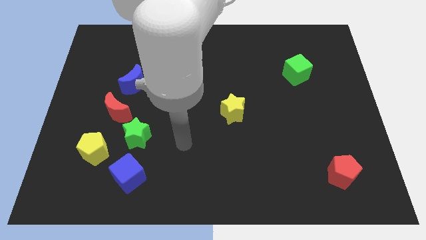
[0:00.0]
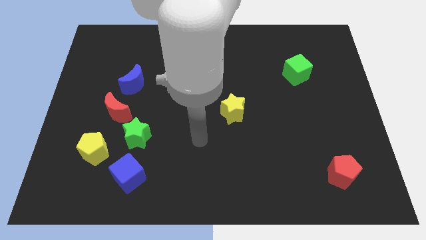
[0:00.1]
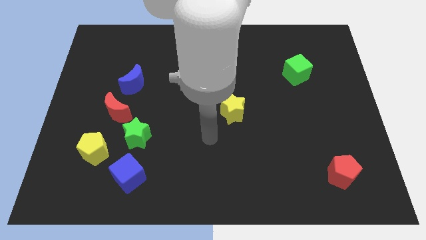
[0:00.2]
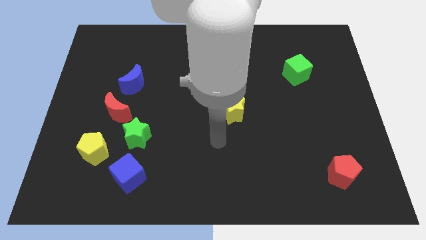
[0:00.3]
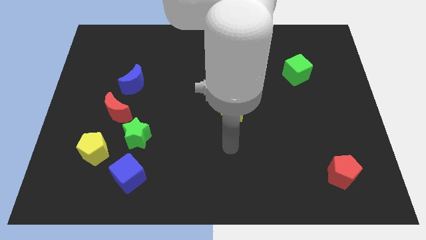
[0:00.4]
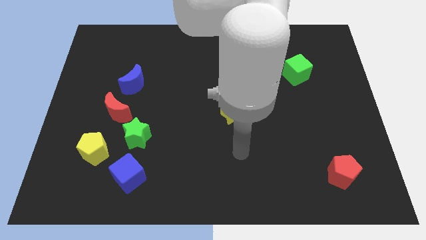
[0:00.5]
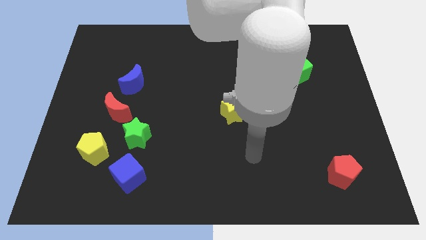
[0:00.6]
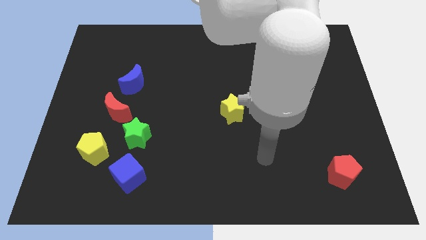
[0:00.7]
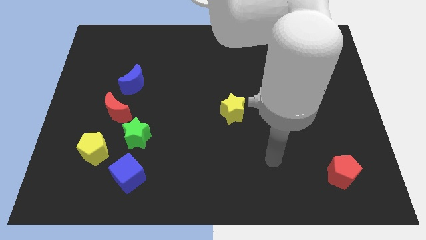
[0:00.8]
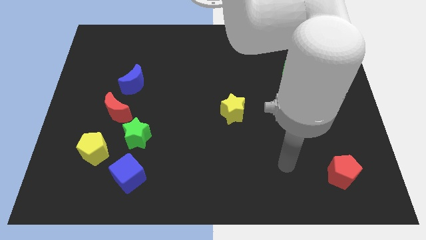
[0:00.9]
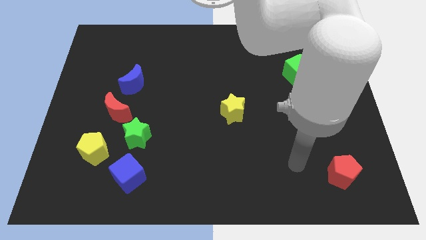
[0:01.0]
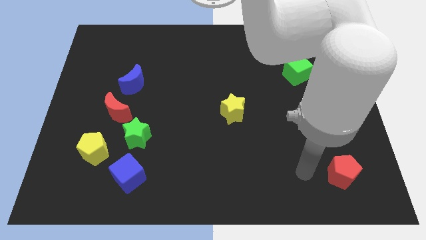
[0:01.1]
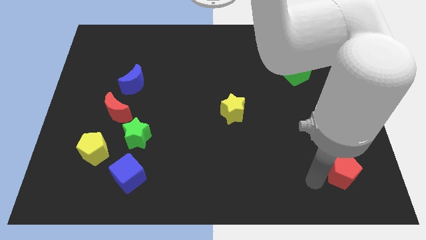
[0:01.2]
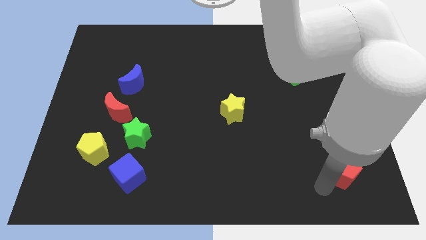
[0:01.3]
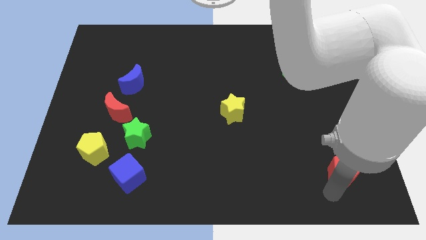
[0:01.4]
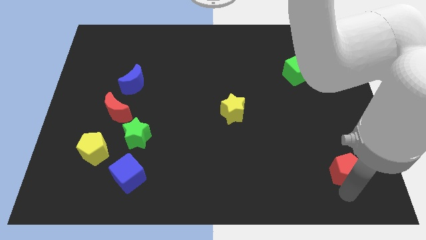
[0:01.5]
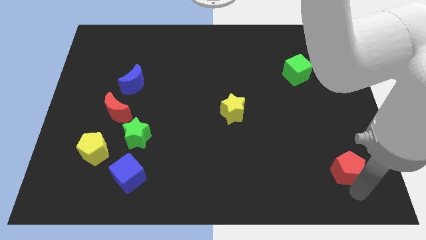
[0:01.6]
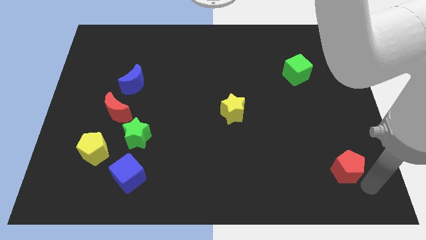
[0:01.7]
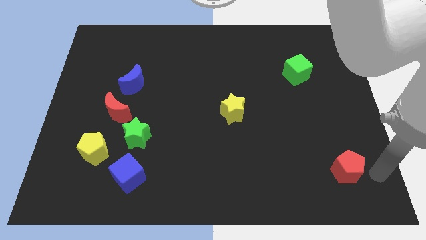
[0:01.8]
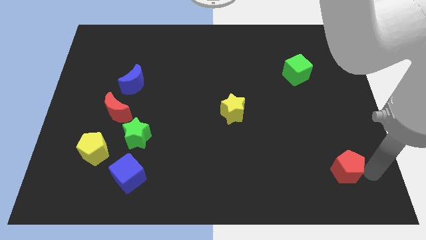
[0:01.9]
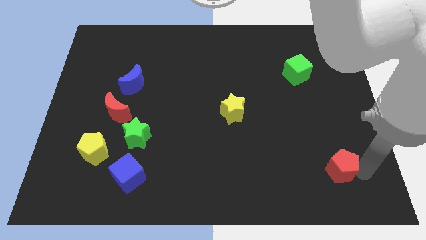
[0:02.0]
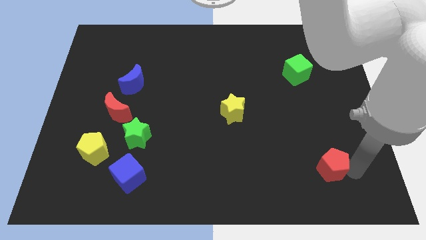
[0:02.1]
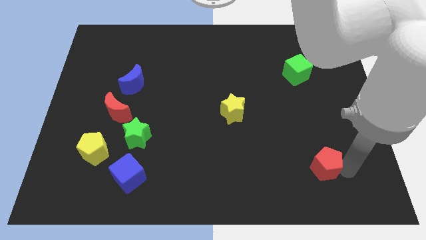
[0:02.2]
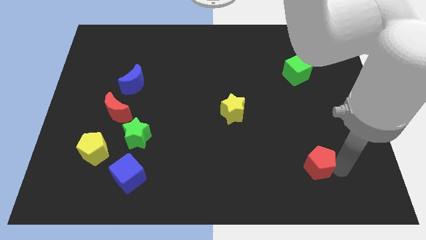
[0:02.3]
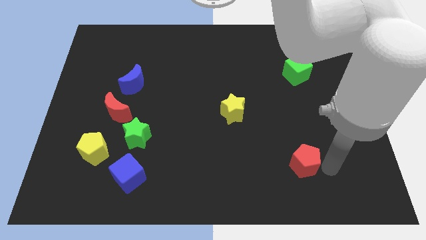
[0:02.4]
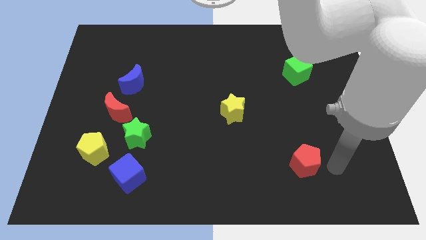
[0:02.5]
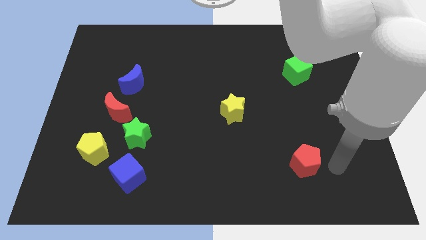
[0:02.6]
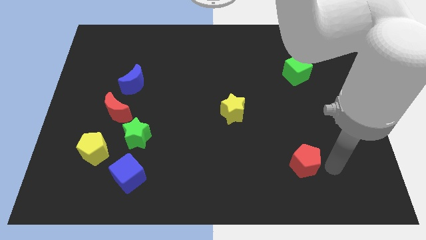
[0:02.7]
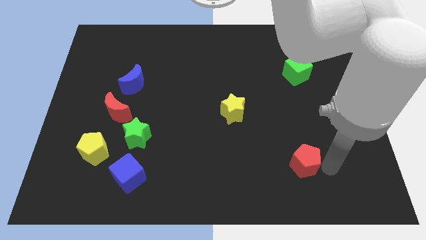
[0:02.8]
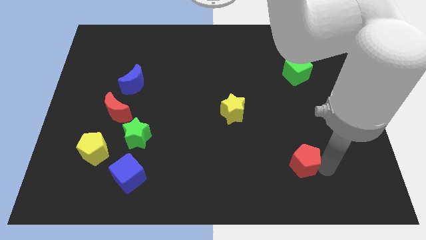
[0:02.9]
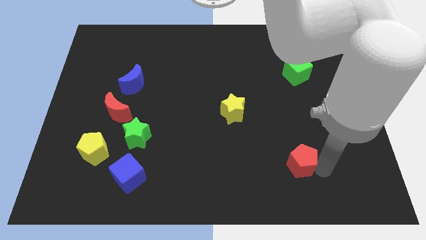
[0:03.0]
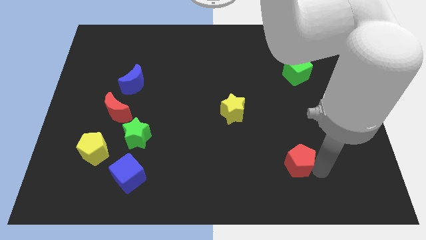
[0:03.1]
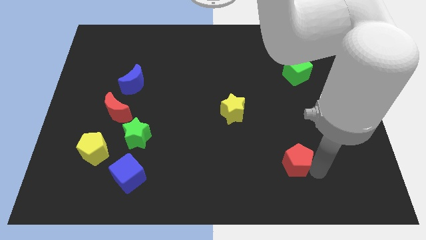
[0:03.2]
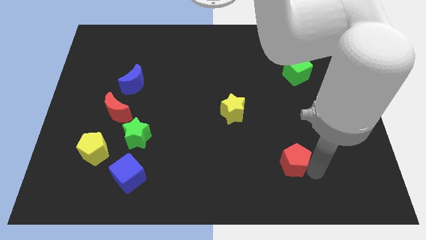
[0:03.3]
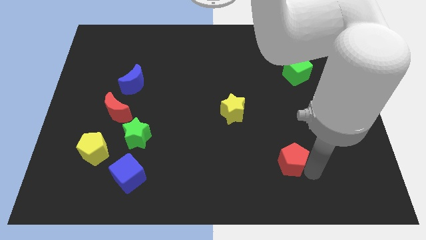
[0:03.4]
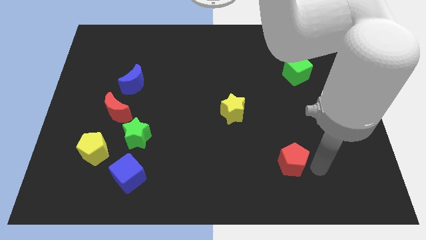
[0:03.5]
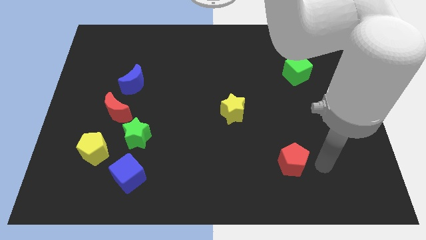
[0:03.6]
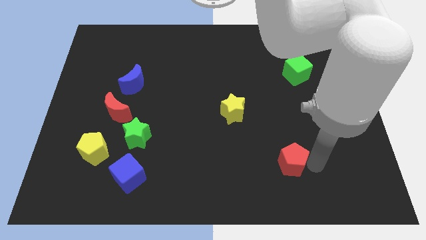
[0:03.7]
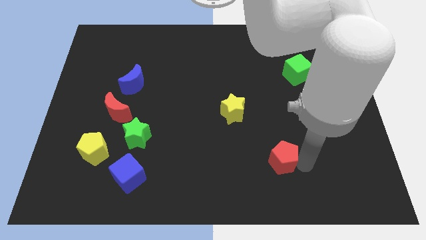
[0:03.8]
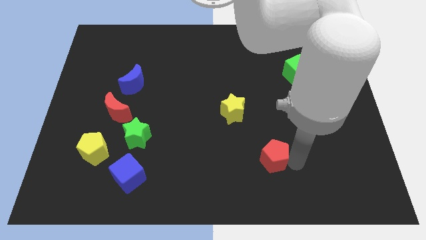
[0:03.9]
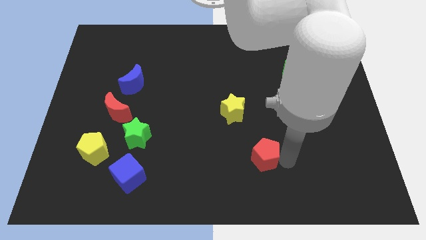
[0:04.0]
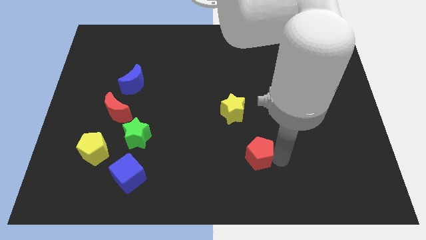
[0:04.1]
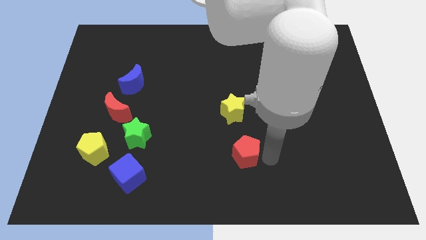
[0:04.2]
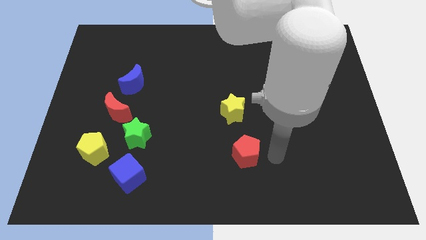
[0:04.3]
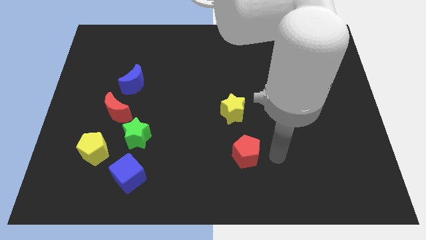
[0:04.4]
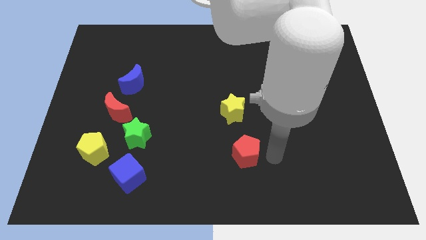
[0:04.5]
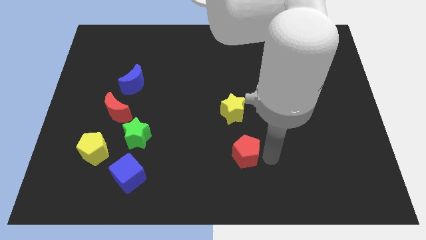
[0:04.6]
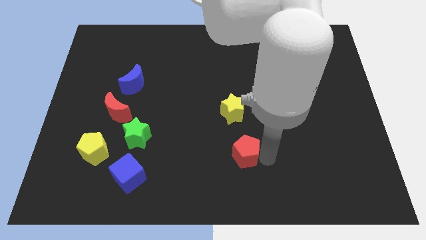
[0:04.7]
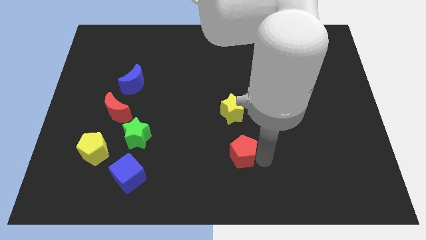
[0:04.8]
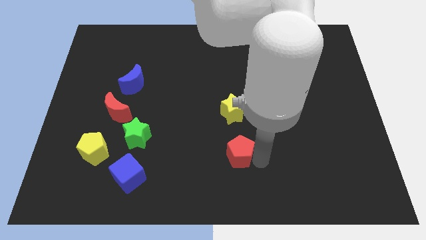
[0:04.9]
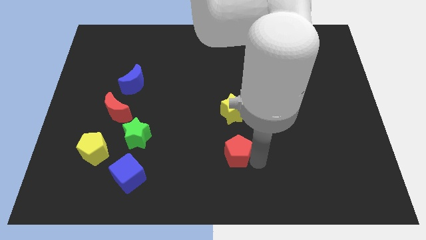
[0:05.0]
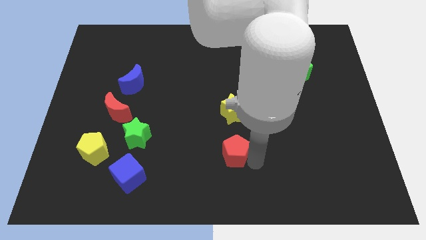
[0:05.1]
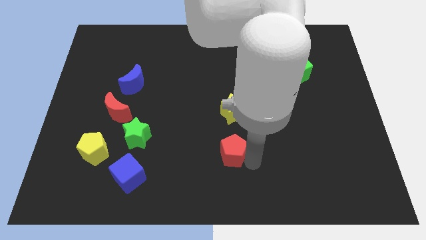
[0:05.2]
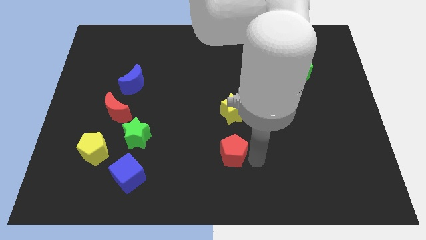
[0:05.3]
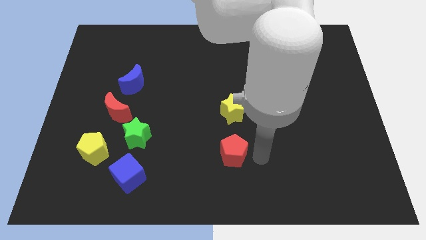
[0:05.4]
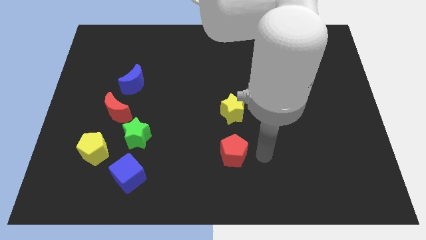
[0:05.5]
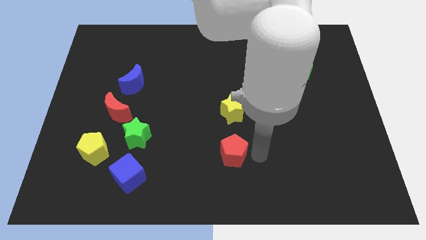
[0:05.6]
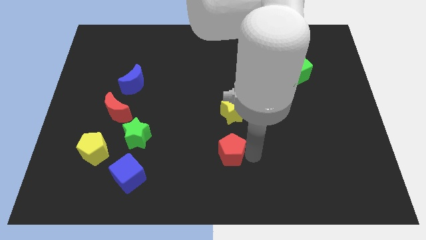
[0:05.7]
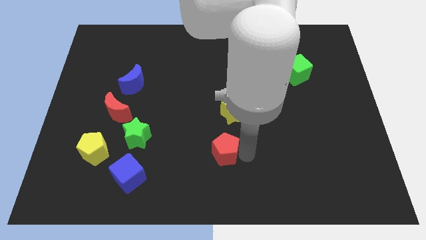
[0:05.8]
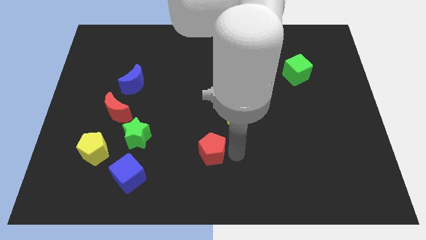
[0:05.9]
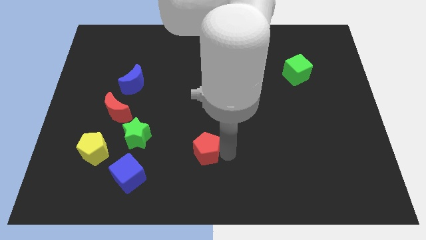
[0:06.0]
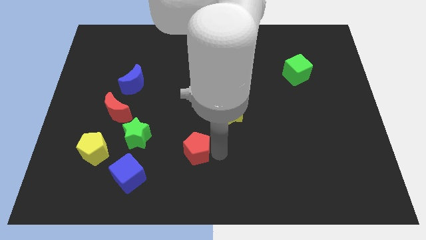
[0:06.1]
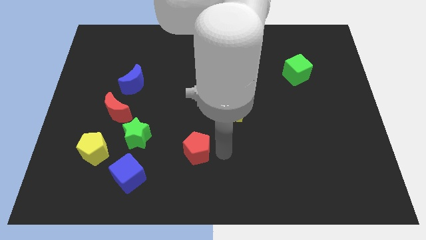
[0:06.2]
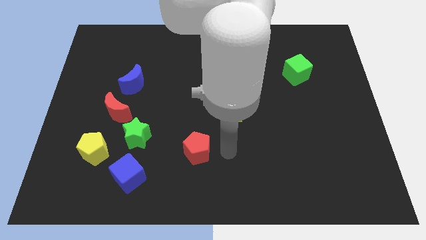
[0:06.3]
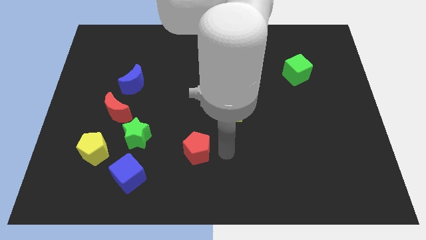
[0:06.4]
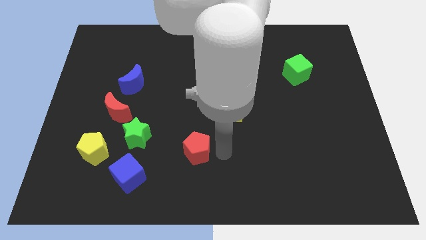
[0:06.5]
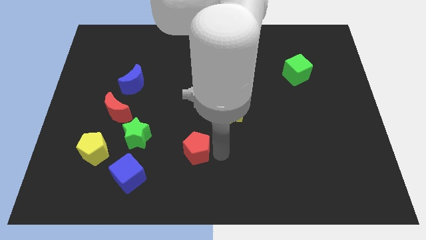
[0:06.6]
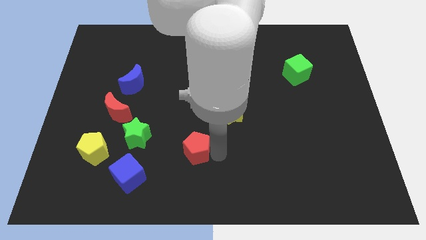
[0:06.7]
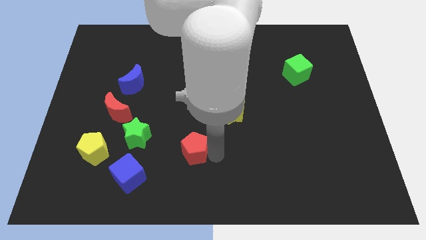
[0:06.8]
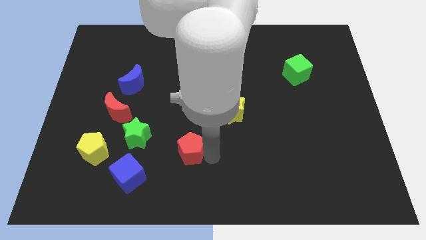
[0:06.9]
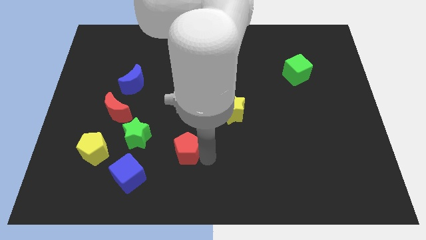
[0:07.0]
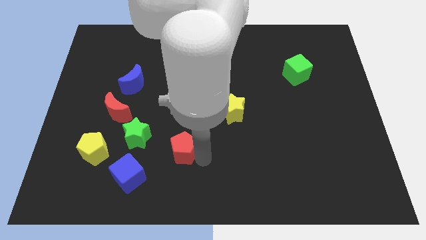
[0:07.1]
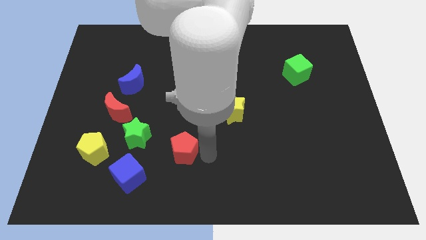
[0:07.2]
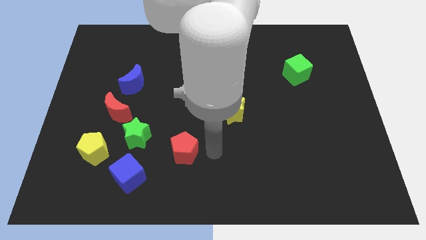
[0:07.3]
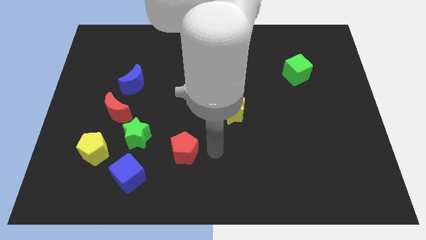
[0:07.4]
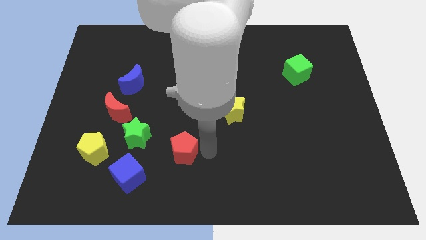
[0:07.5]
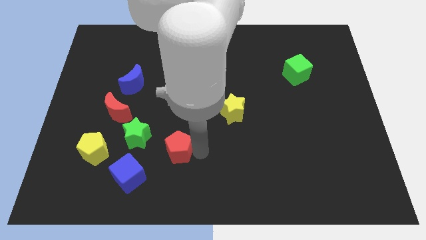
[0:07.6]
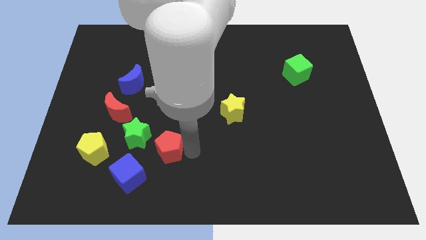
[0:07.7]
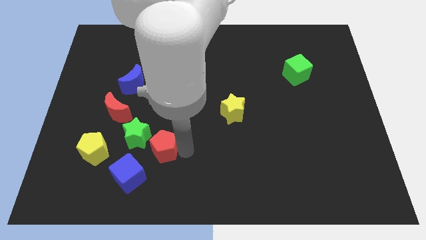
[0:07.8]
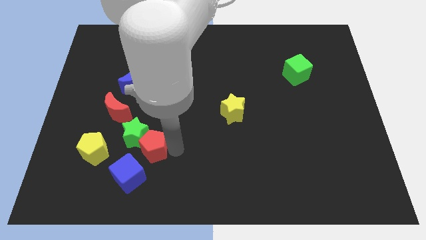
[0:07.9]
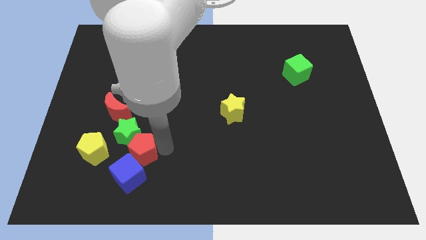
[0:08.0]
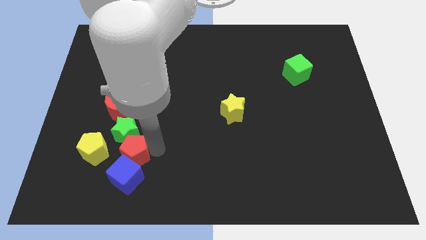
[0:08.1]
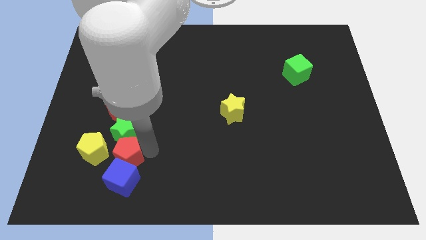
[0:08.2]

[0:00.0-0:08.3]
put the red pentagon to the bottom side of the red moon
